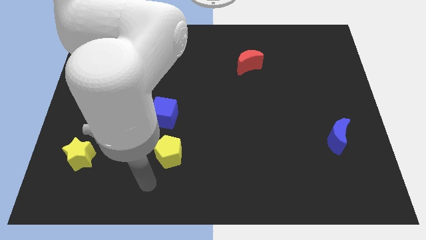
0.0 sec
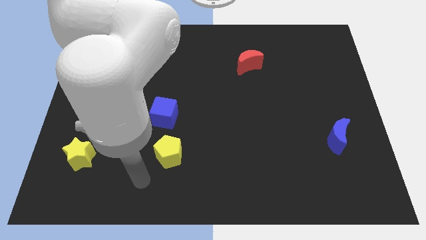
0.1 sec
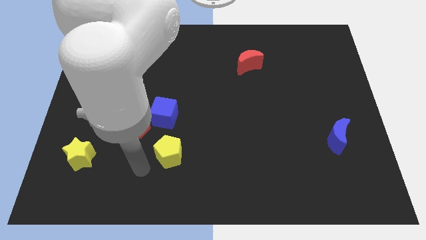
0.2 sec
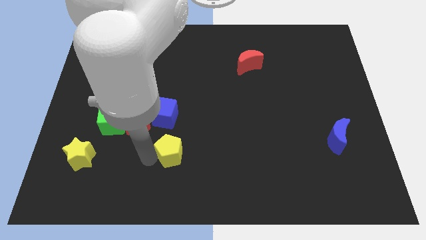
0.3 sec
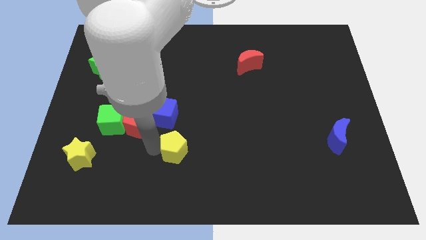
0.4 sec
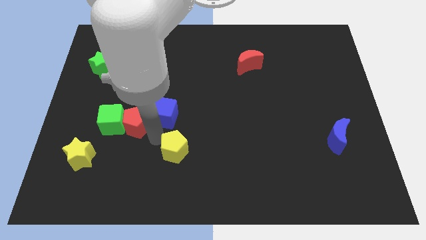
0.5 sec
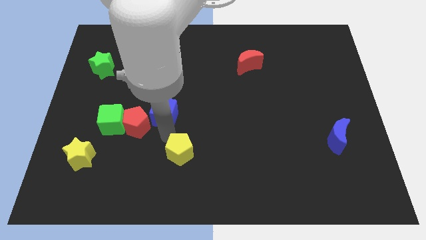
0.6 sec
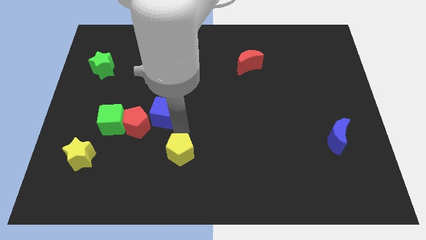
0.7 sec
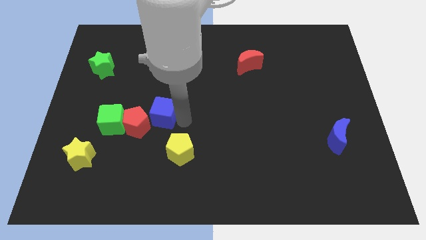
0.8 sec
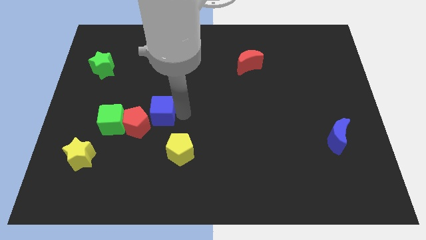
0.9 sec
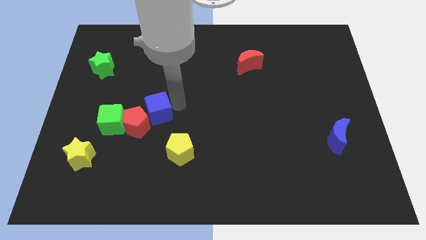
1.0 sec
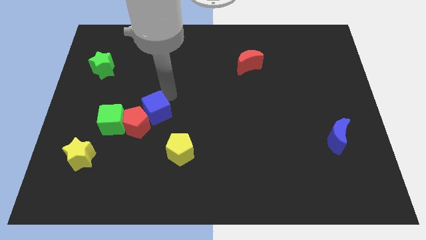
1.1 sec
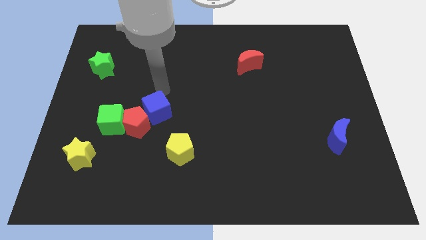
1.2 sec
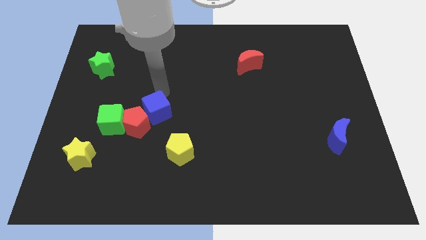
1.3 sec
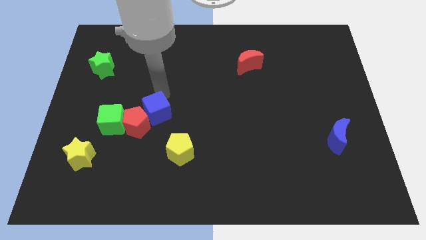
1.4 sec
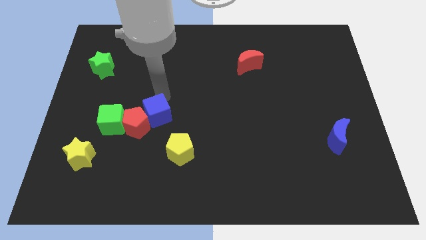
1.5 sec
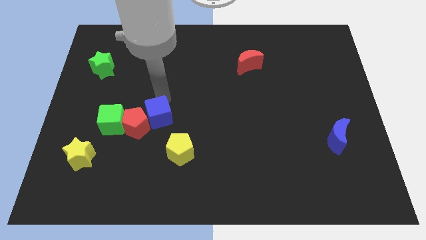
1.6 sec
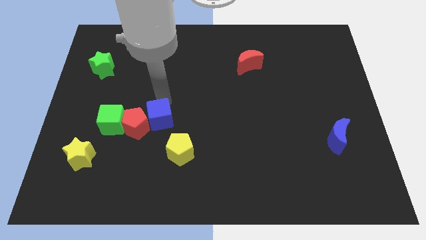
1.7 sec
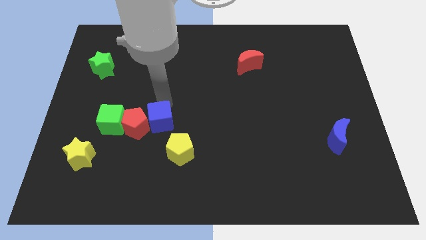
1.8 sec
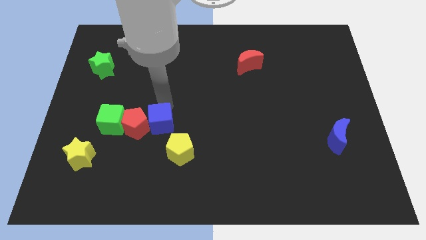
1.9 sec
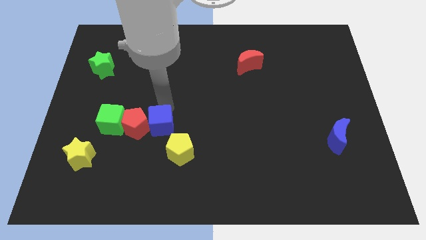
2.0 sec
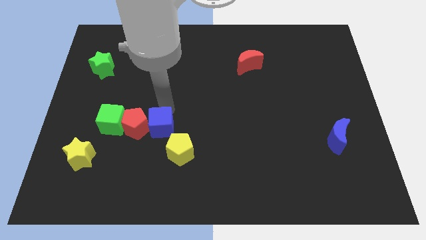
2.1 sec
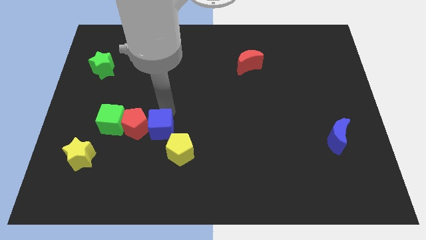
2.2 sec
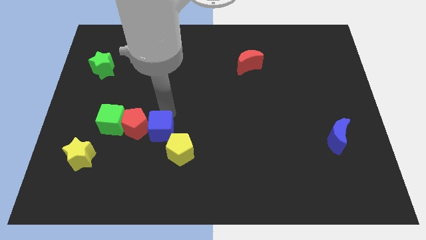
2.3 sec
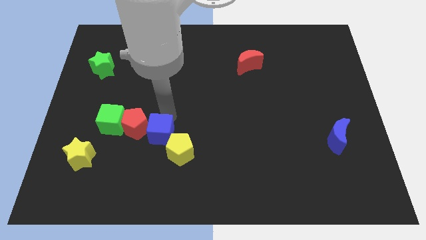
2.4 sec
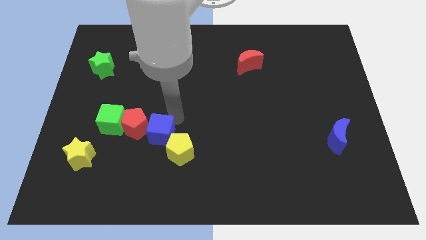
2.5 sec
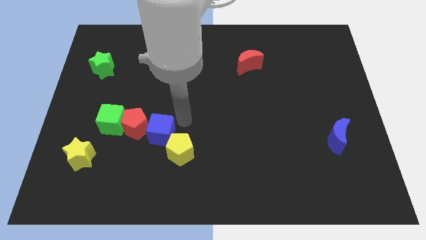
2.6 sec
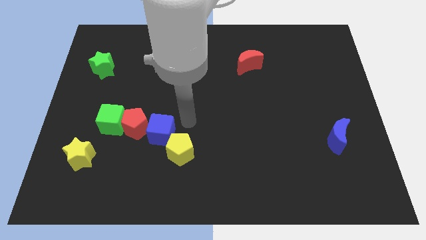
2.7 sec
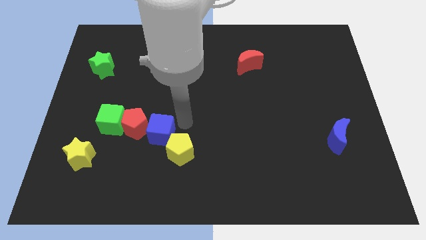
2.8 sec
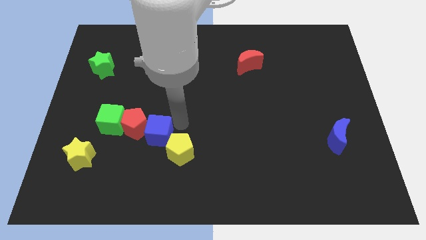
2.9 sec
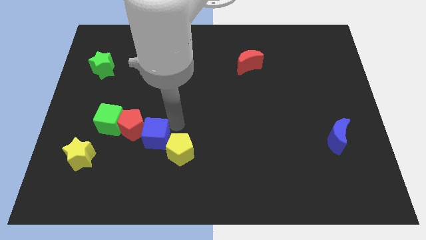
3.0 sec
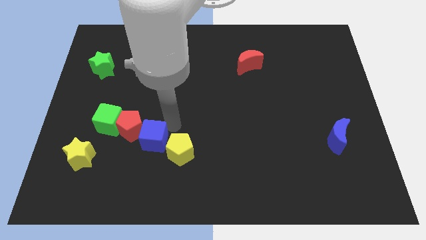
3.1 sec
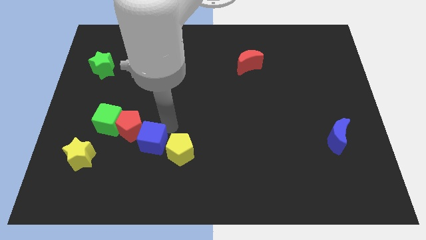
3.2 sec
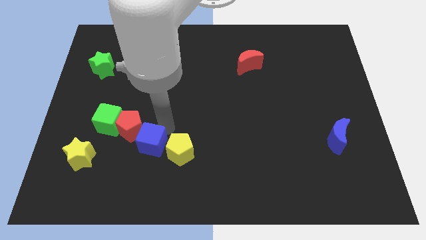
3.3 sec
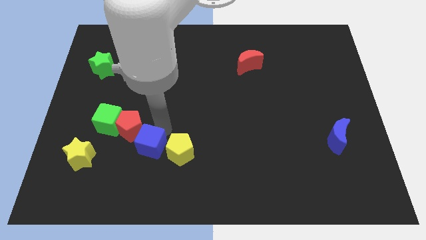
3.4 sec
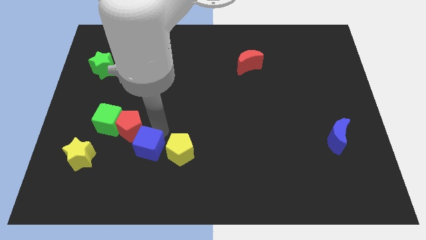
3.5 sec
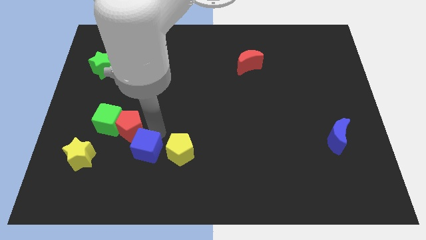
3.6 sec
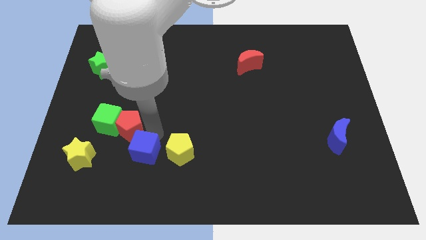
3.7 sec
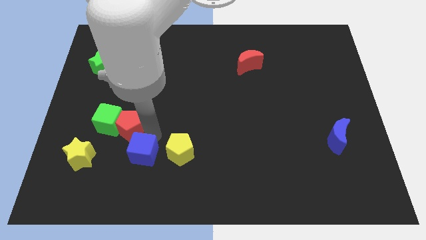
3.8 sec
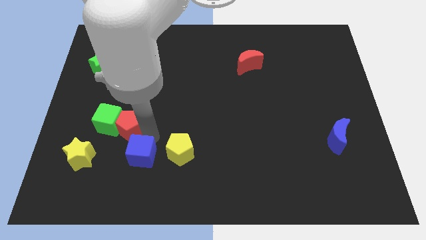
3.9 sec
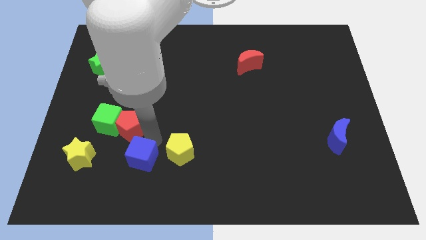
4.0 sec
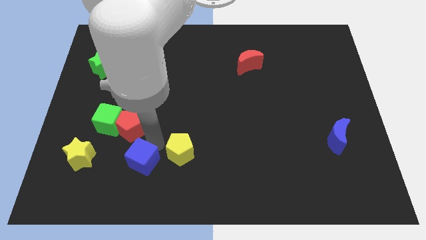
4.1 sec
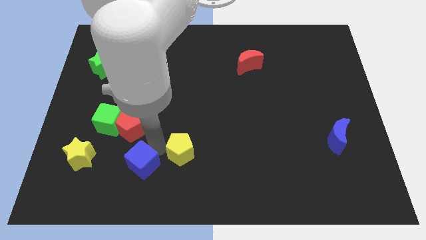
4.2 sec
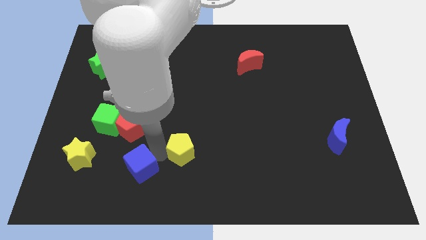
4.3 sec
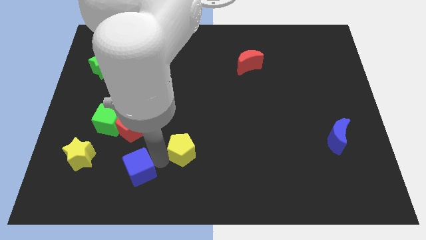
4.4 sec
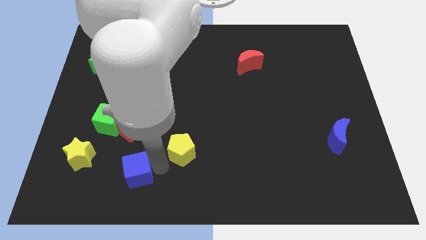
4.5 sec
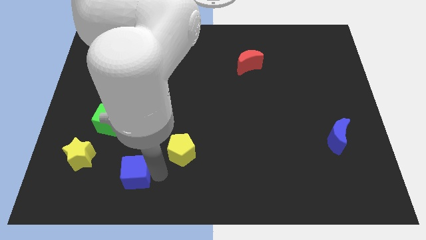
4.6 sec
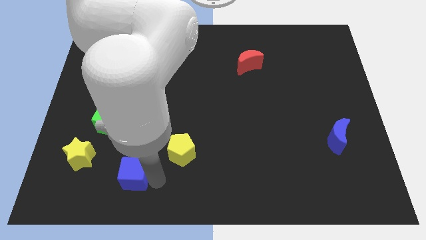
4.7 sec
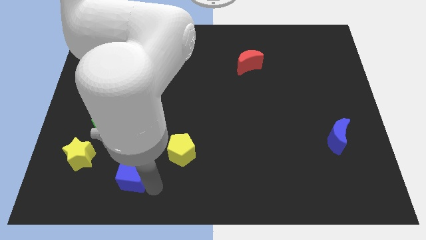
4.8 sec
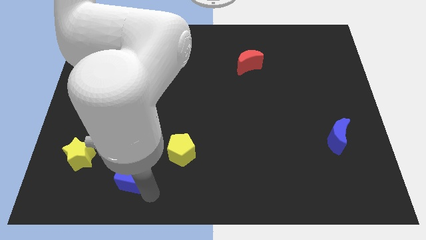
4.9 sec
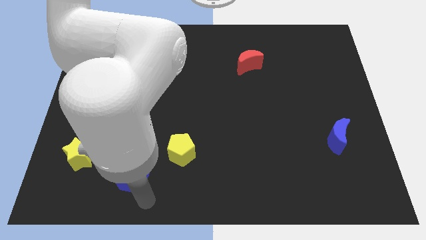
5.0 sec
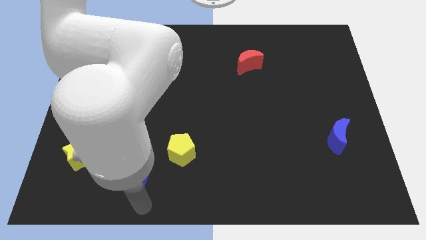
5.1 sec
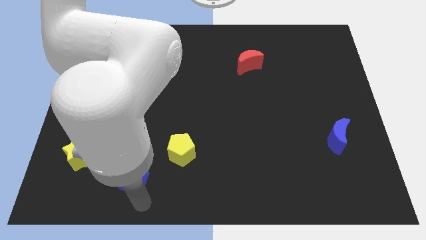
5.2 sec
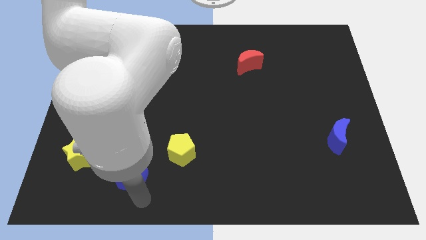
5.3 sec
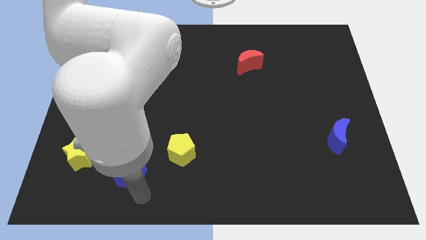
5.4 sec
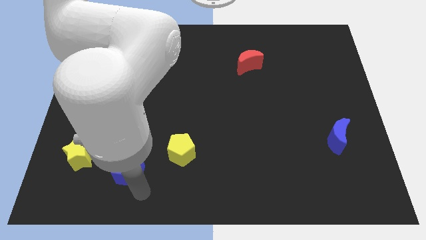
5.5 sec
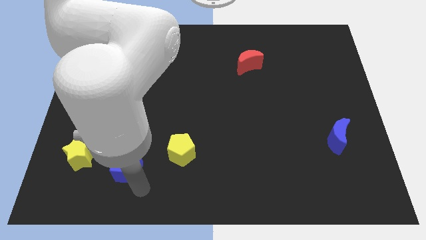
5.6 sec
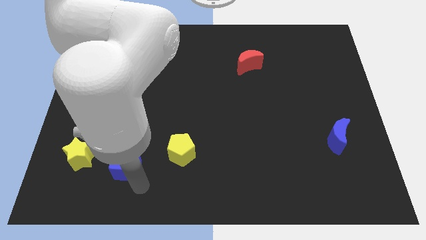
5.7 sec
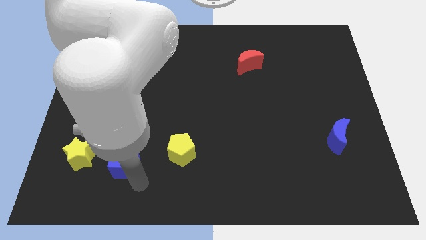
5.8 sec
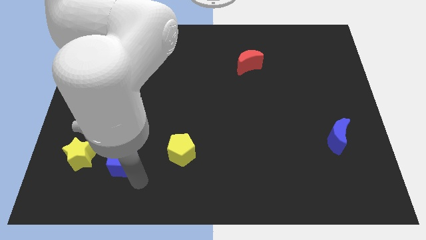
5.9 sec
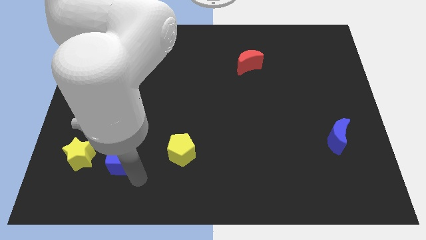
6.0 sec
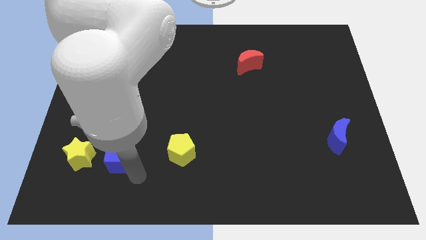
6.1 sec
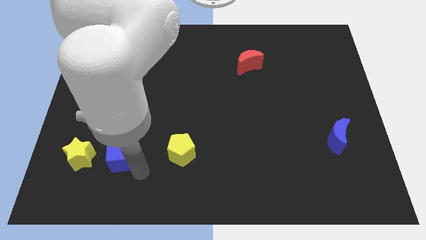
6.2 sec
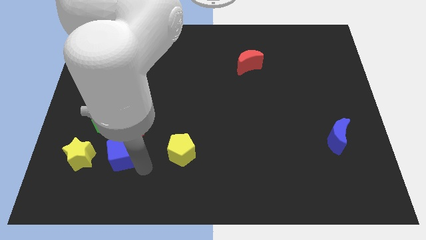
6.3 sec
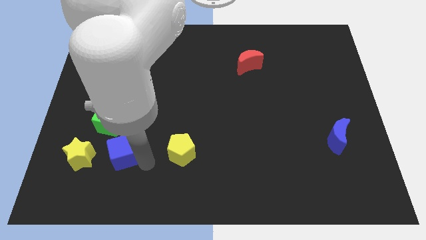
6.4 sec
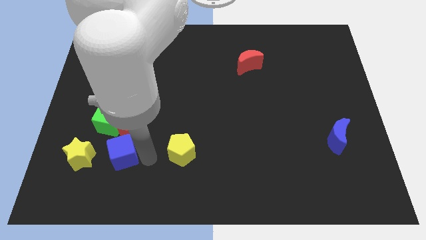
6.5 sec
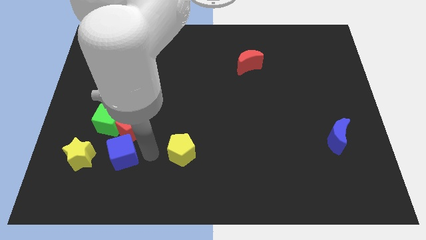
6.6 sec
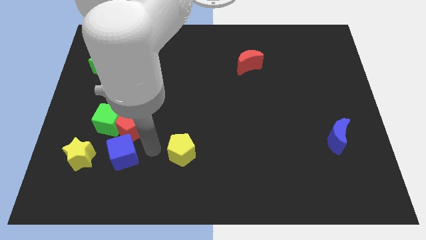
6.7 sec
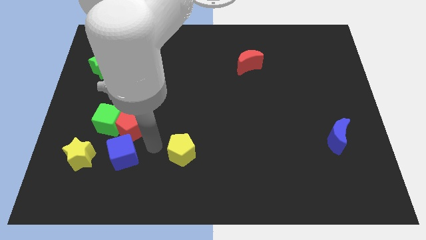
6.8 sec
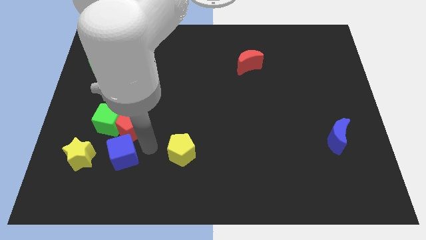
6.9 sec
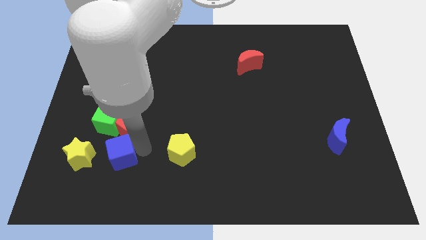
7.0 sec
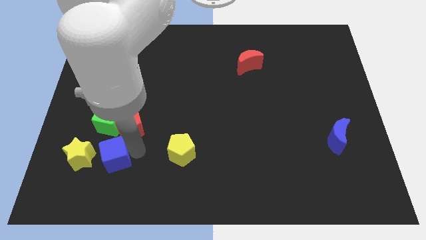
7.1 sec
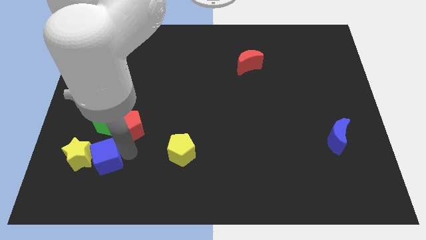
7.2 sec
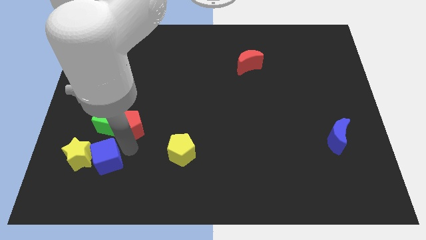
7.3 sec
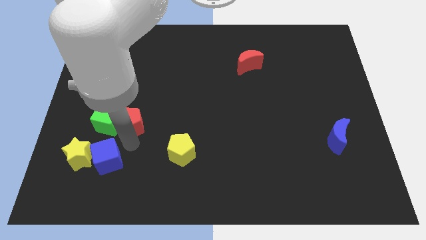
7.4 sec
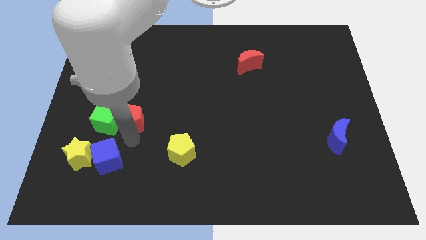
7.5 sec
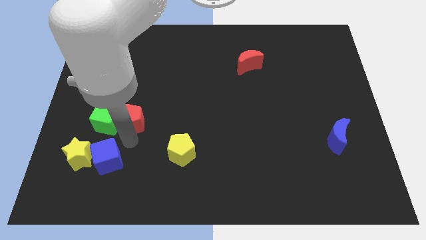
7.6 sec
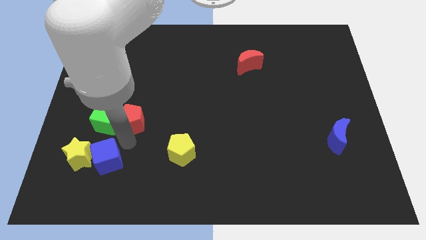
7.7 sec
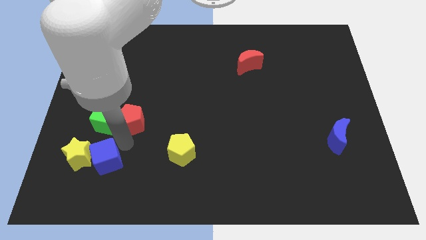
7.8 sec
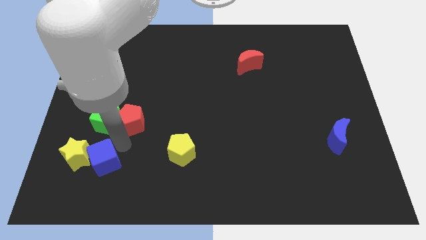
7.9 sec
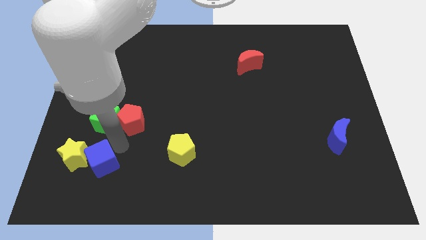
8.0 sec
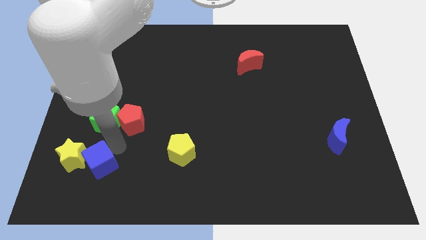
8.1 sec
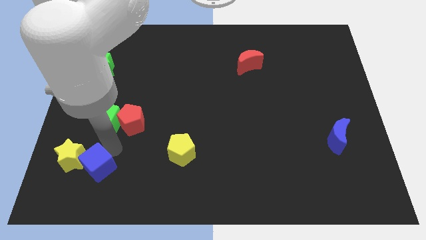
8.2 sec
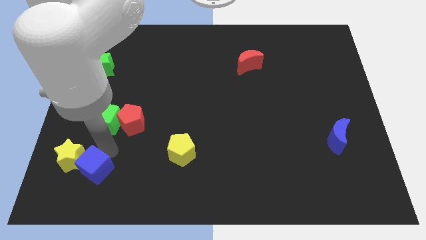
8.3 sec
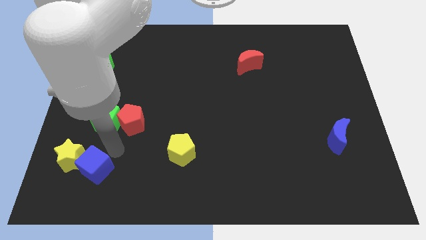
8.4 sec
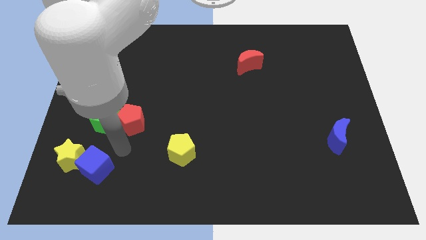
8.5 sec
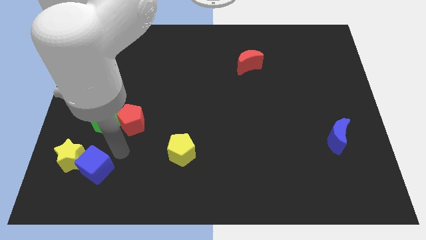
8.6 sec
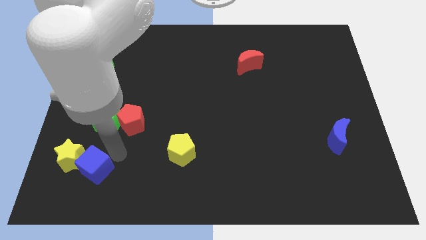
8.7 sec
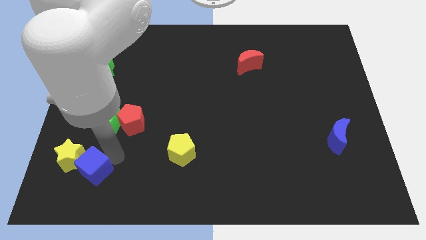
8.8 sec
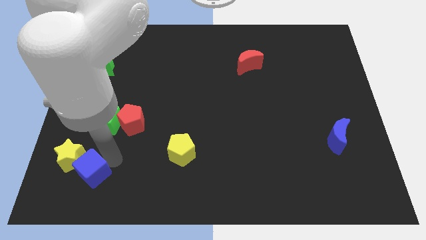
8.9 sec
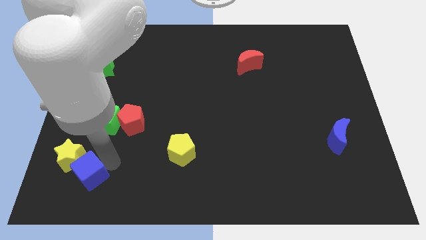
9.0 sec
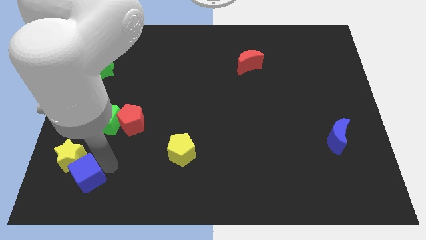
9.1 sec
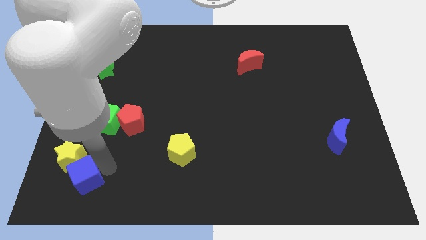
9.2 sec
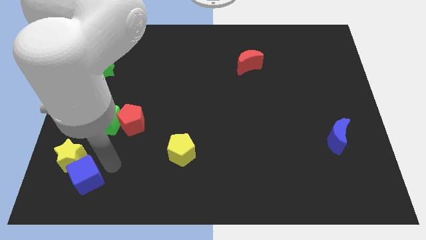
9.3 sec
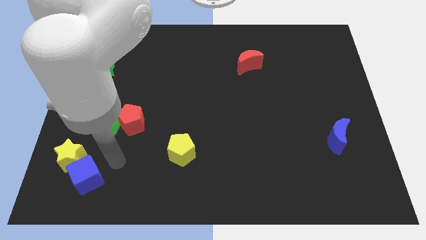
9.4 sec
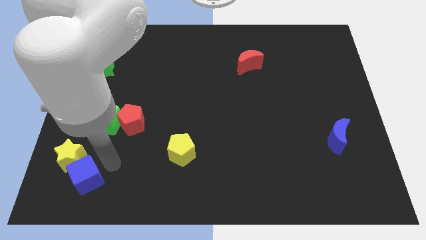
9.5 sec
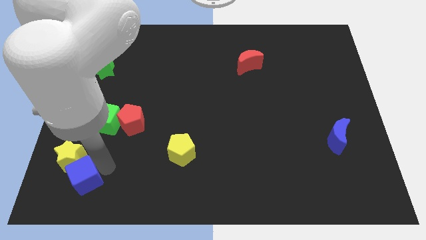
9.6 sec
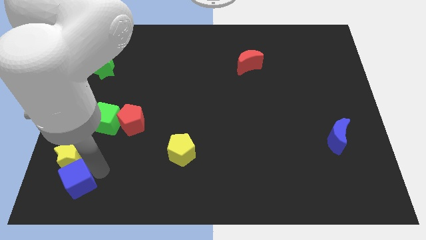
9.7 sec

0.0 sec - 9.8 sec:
slide the blue cube to the bottom left of the board
